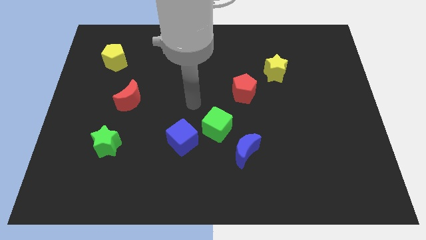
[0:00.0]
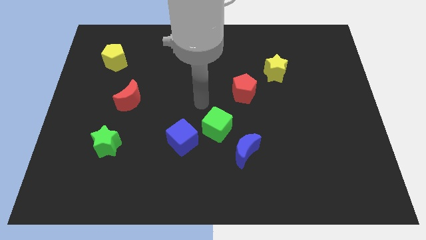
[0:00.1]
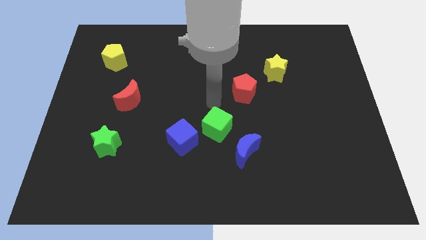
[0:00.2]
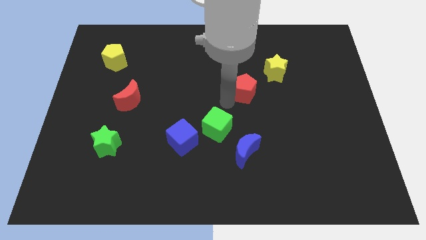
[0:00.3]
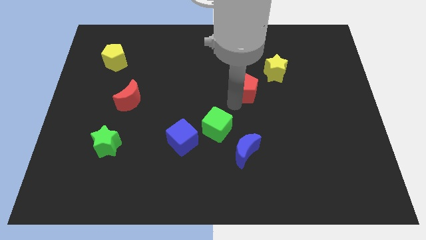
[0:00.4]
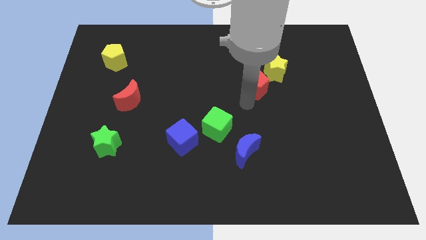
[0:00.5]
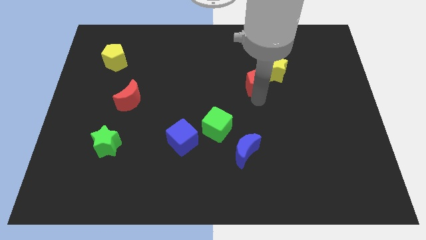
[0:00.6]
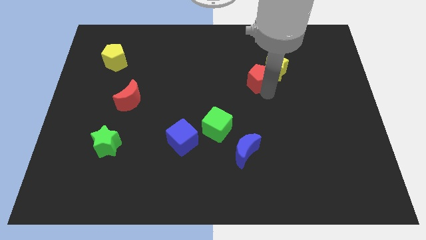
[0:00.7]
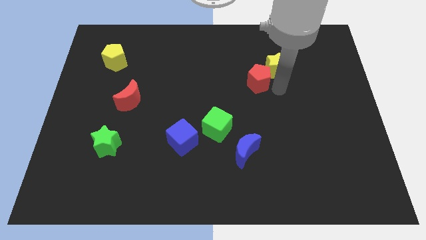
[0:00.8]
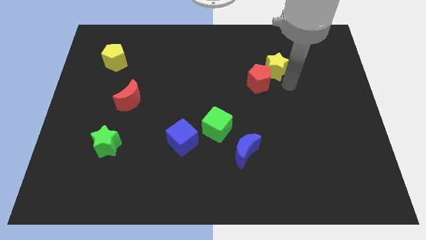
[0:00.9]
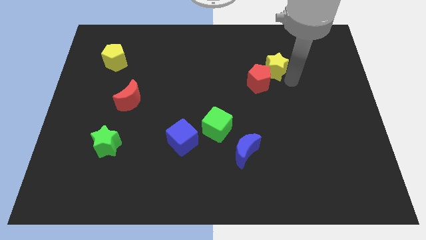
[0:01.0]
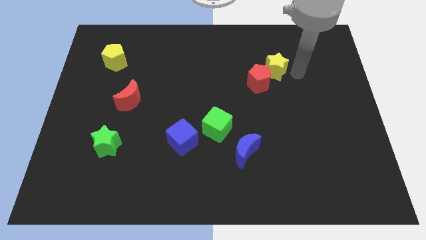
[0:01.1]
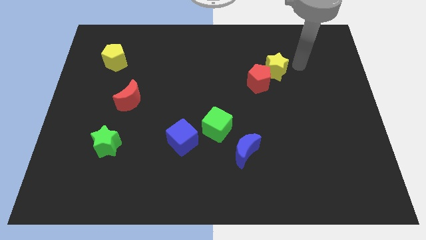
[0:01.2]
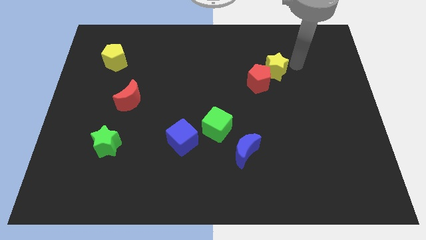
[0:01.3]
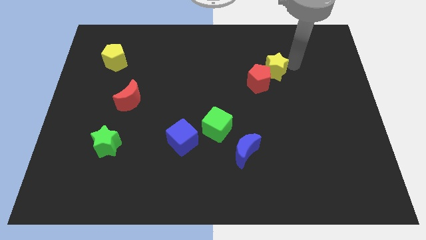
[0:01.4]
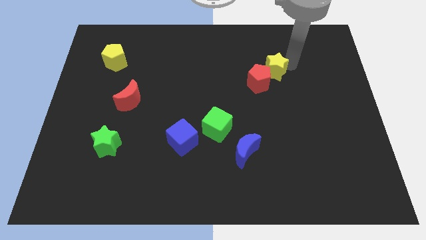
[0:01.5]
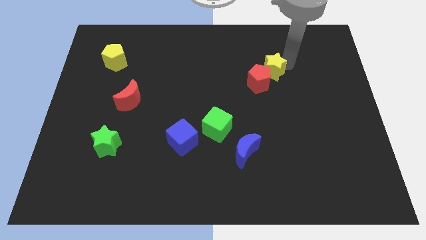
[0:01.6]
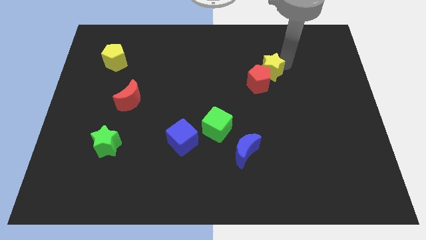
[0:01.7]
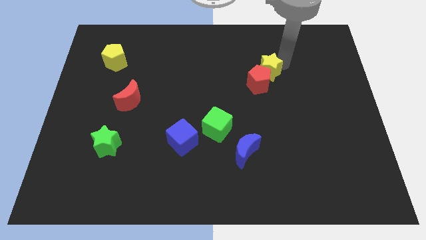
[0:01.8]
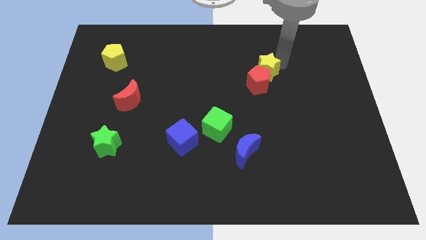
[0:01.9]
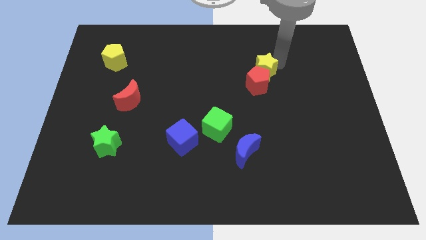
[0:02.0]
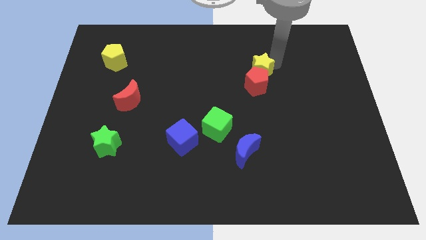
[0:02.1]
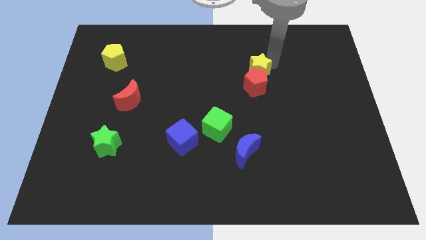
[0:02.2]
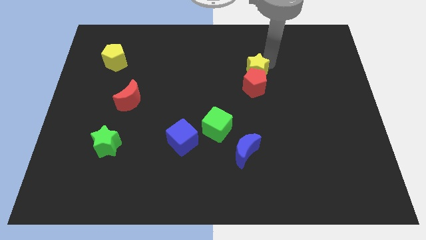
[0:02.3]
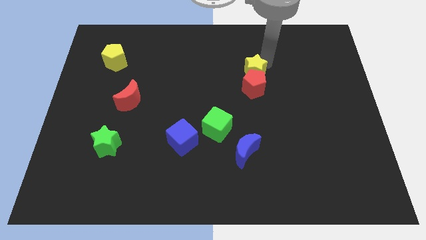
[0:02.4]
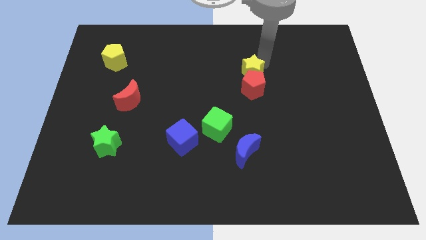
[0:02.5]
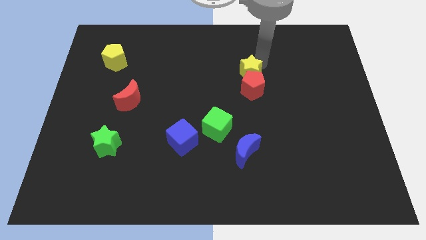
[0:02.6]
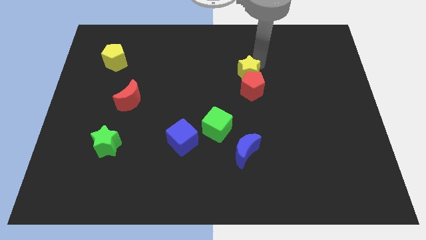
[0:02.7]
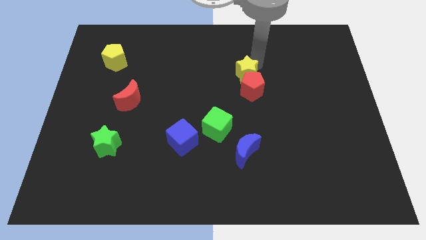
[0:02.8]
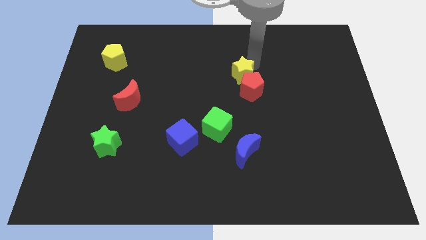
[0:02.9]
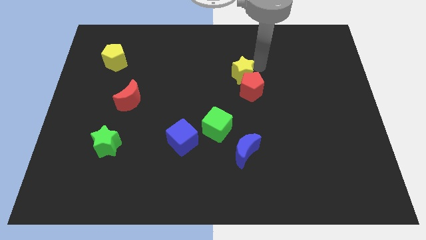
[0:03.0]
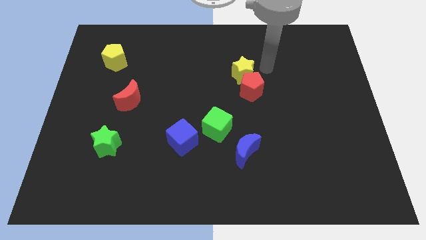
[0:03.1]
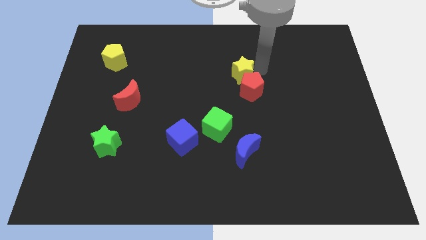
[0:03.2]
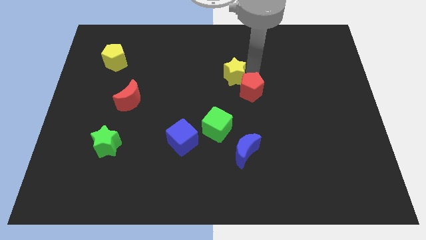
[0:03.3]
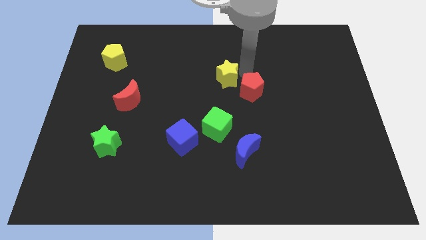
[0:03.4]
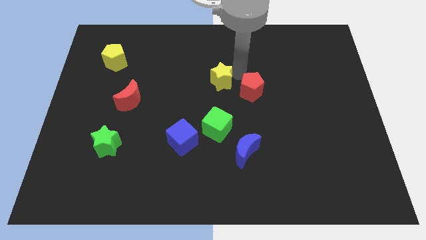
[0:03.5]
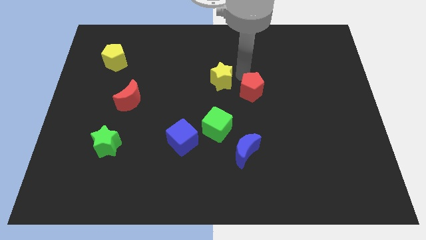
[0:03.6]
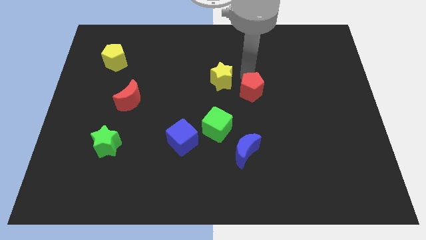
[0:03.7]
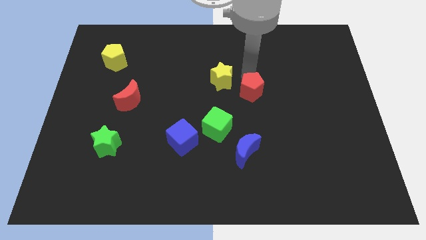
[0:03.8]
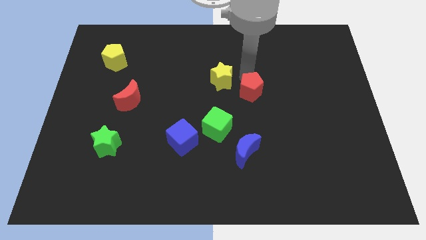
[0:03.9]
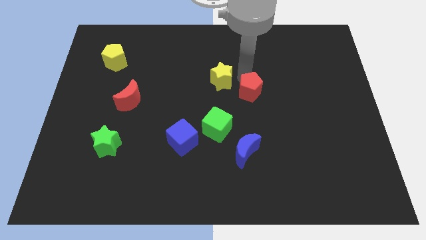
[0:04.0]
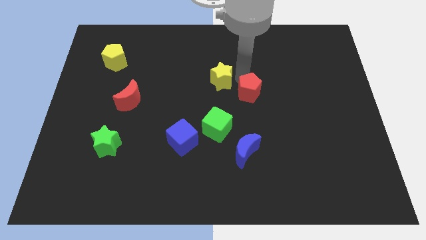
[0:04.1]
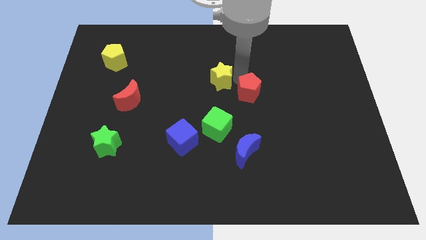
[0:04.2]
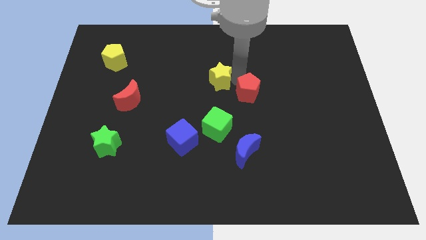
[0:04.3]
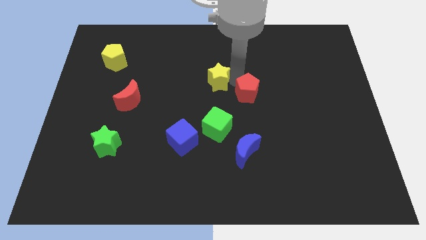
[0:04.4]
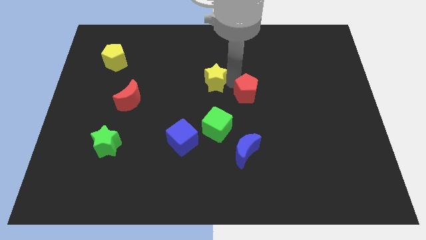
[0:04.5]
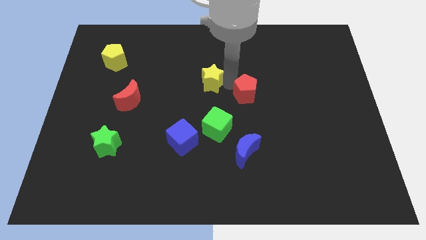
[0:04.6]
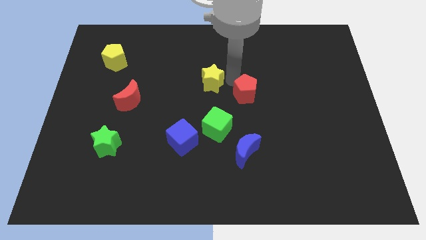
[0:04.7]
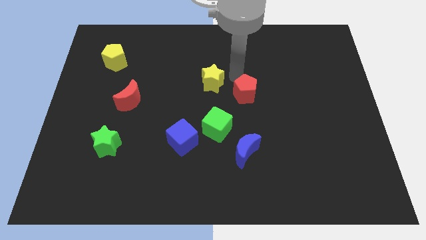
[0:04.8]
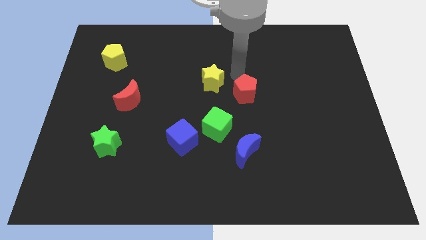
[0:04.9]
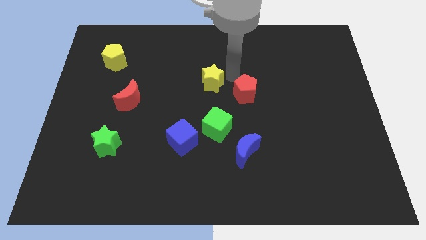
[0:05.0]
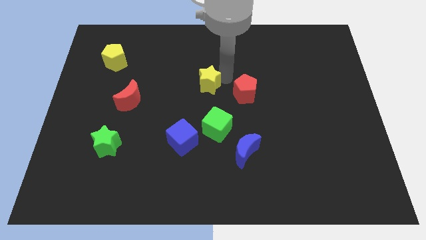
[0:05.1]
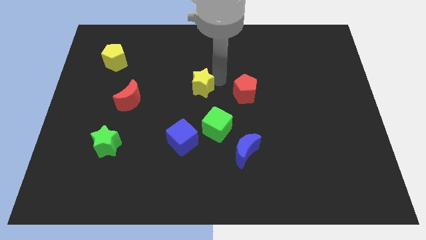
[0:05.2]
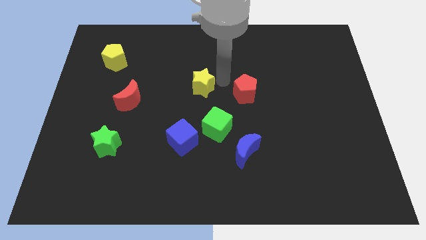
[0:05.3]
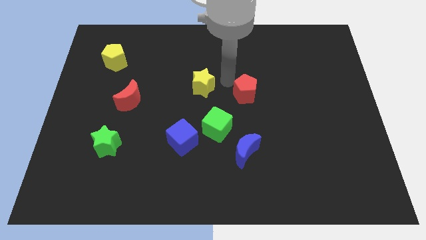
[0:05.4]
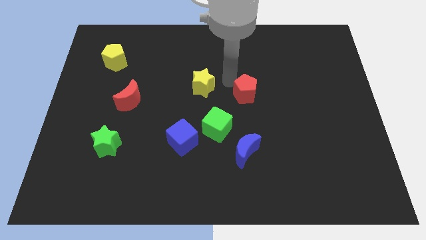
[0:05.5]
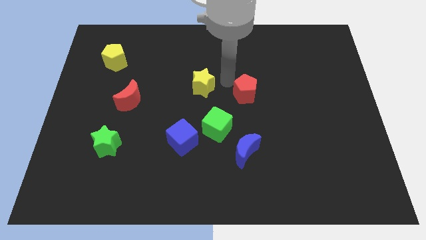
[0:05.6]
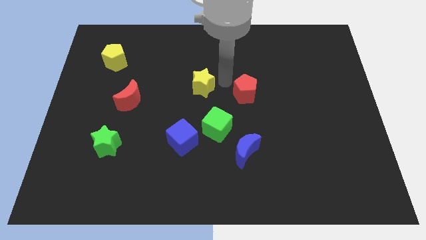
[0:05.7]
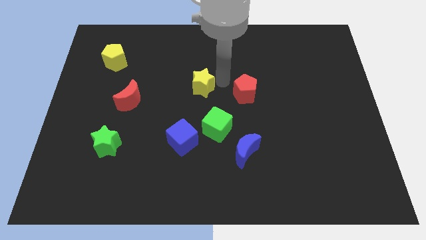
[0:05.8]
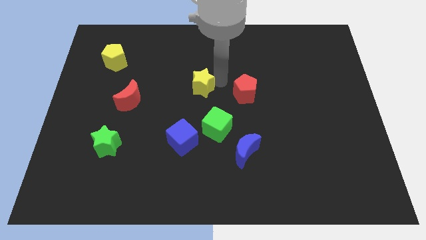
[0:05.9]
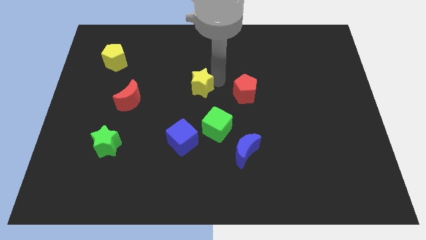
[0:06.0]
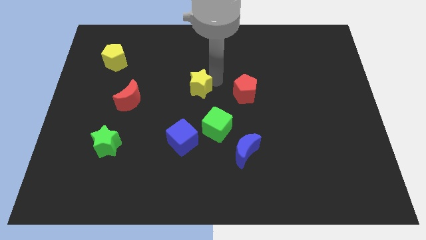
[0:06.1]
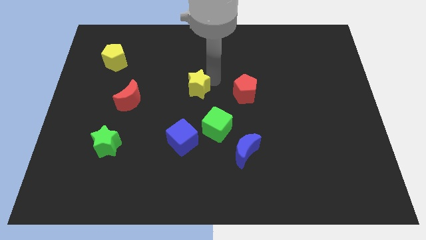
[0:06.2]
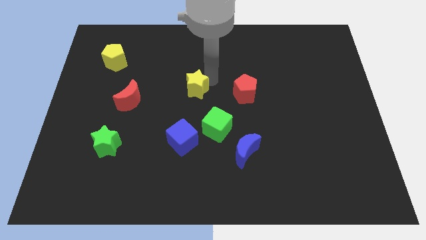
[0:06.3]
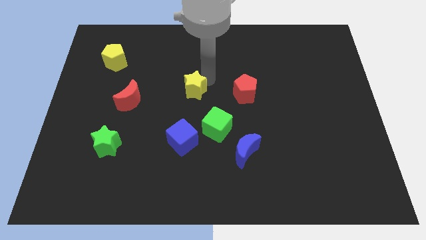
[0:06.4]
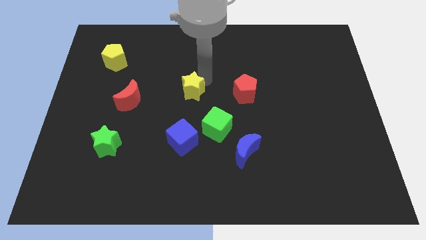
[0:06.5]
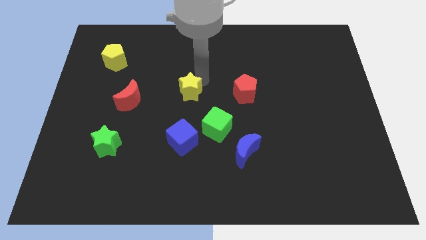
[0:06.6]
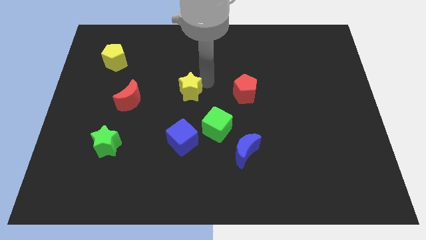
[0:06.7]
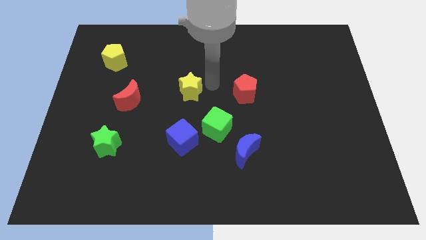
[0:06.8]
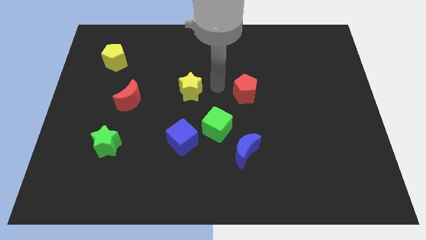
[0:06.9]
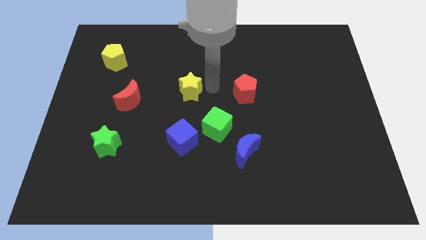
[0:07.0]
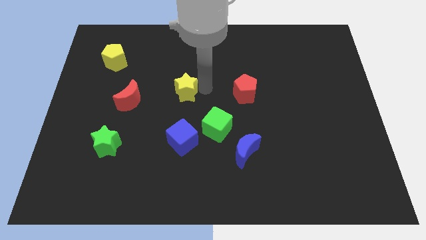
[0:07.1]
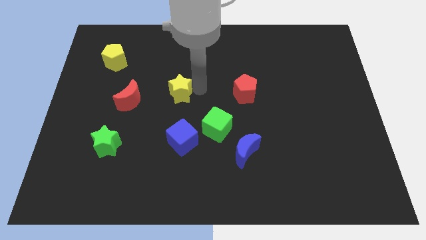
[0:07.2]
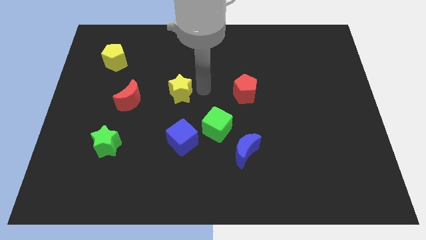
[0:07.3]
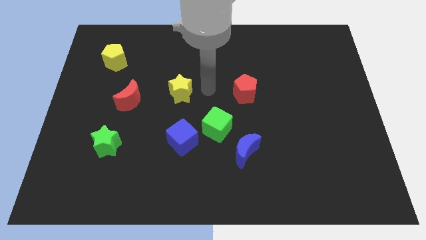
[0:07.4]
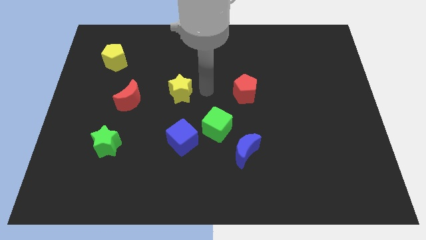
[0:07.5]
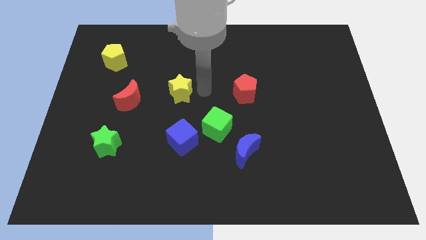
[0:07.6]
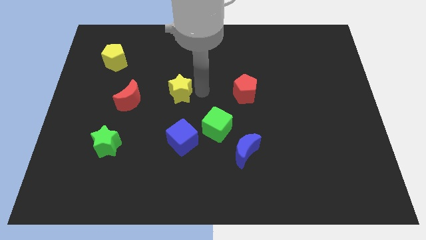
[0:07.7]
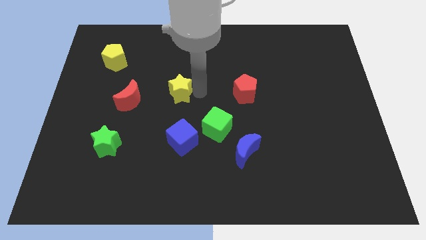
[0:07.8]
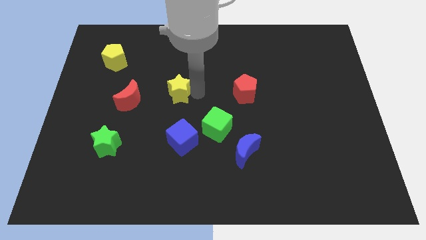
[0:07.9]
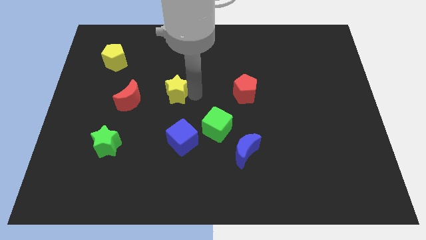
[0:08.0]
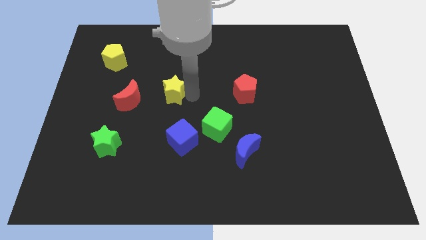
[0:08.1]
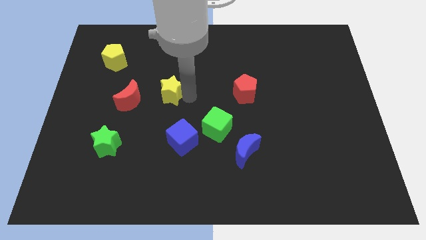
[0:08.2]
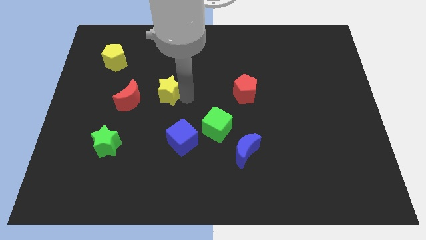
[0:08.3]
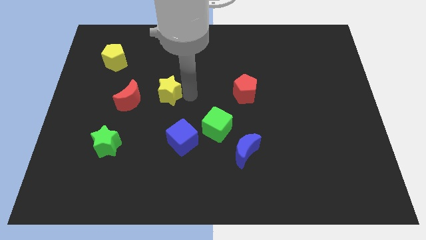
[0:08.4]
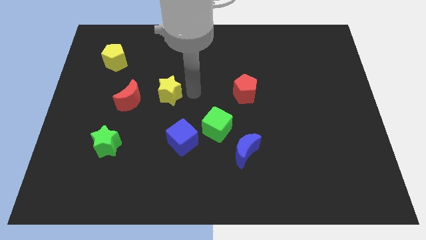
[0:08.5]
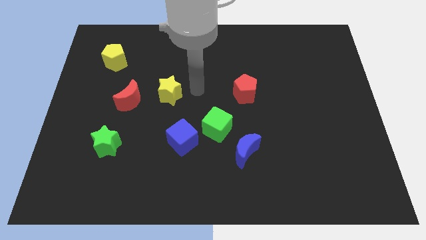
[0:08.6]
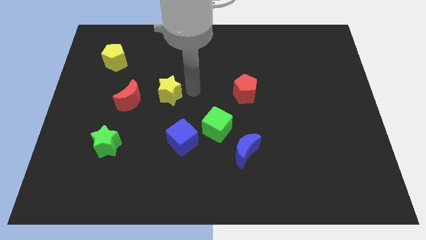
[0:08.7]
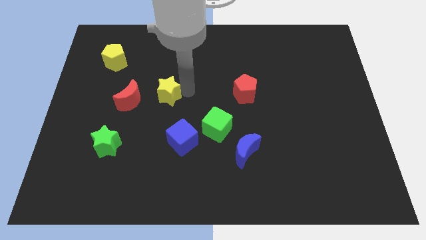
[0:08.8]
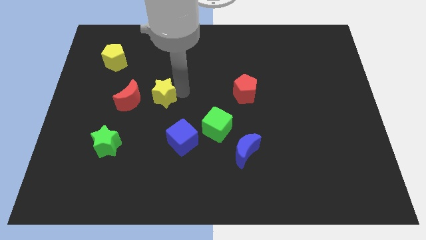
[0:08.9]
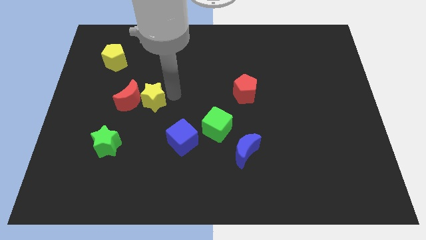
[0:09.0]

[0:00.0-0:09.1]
put the yellow star close to the red moon
